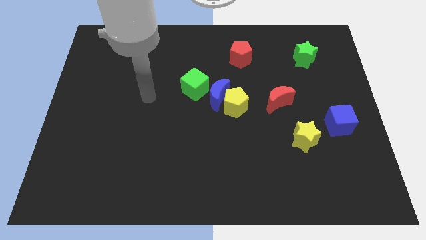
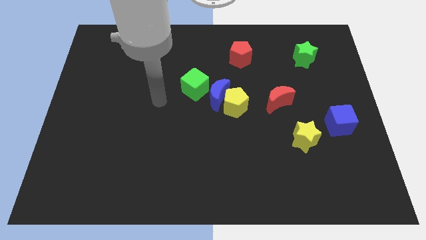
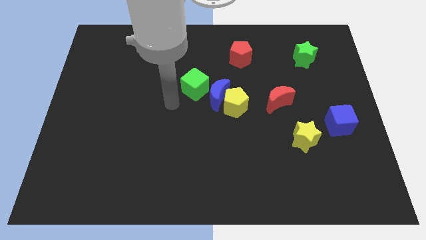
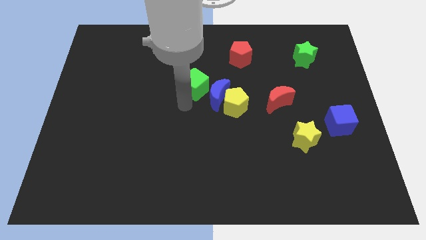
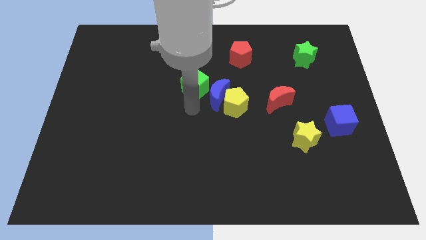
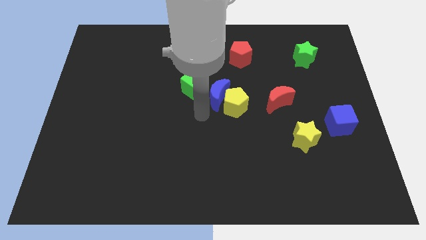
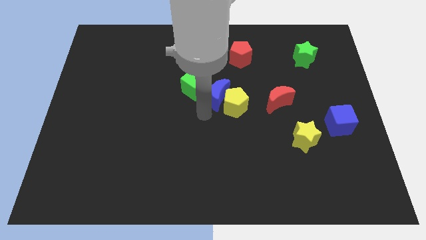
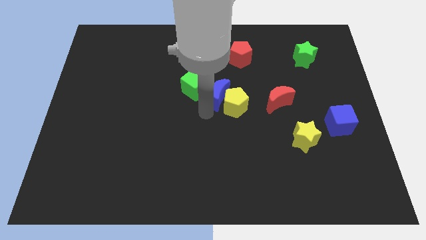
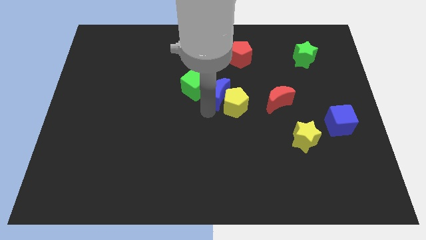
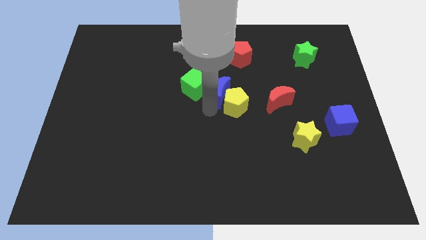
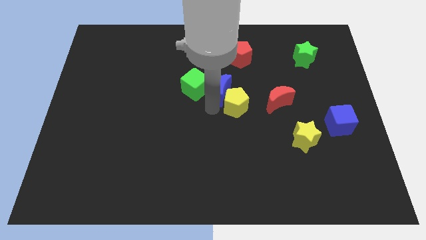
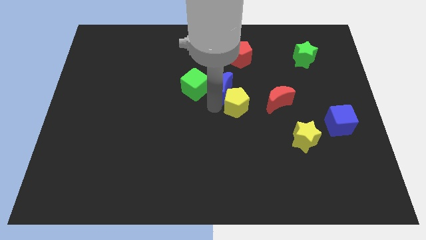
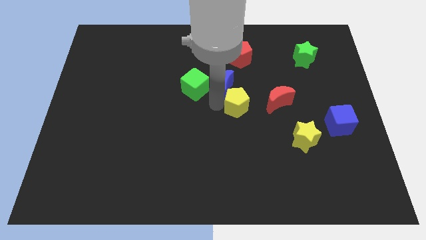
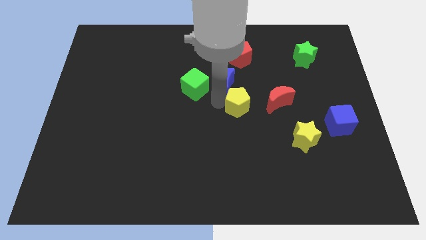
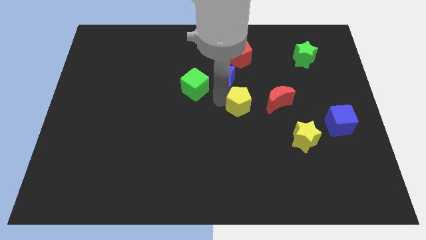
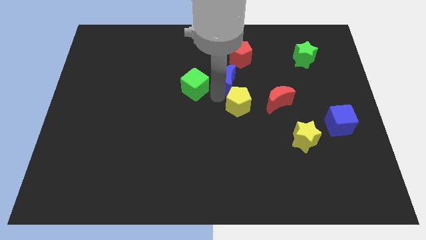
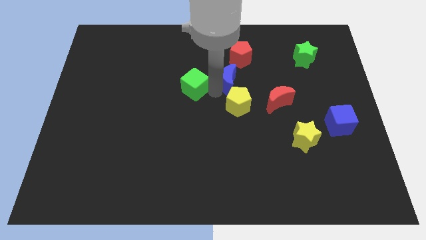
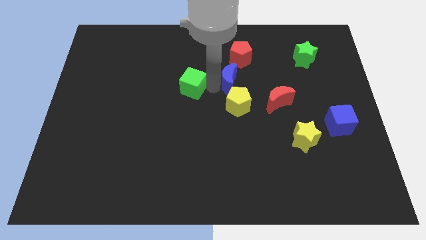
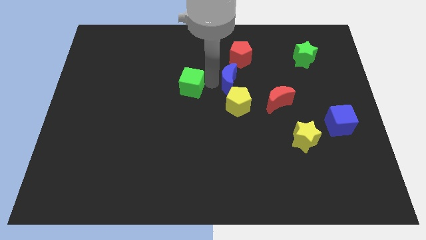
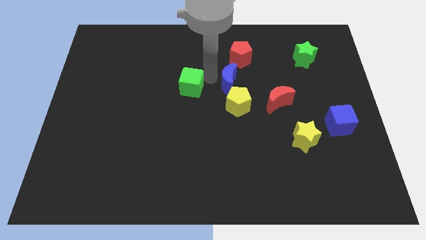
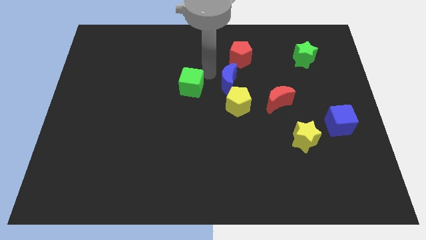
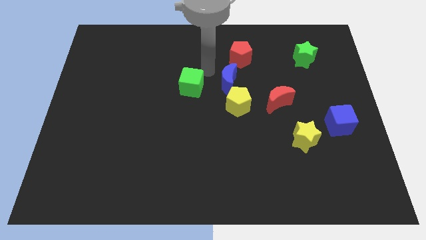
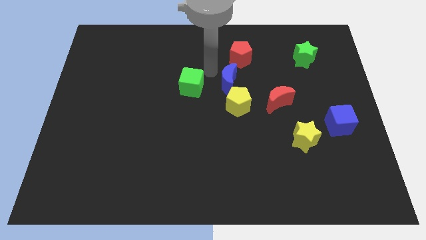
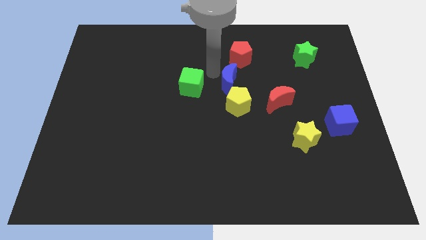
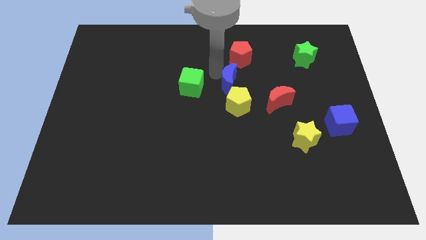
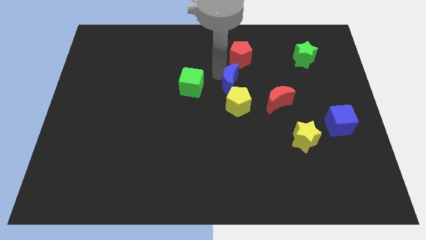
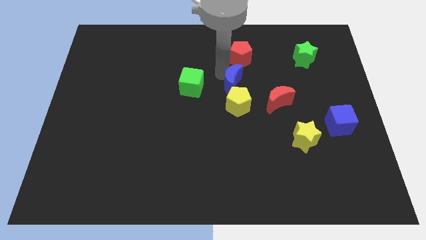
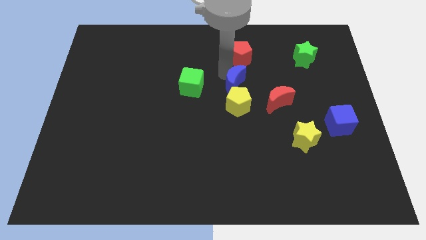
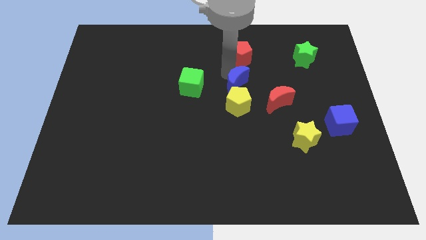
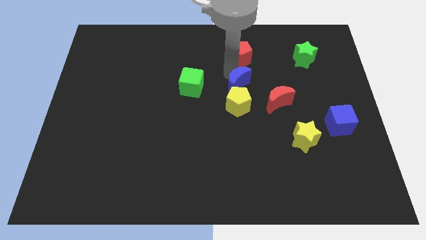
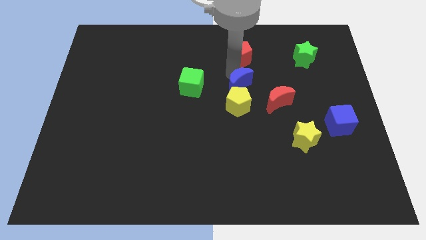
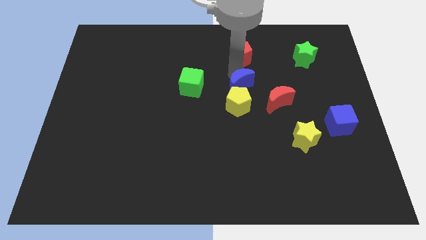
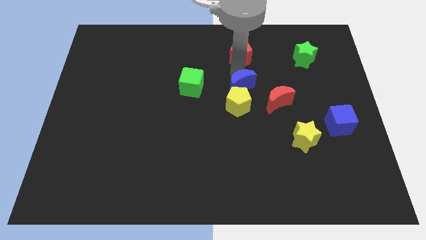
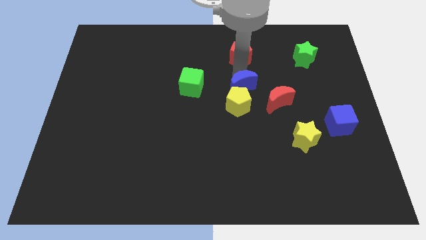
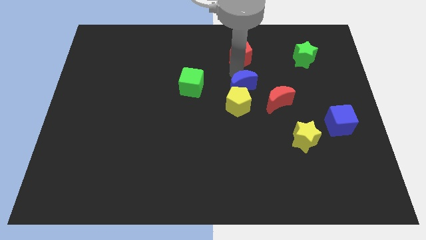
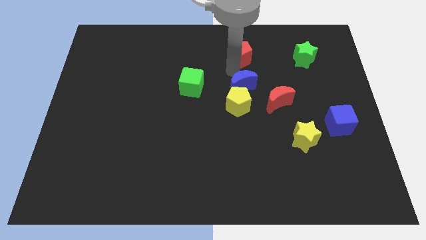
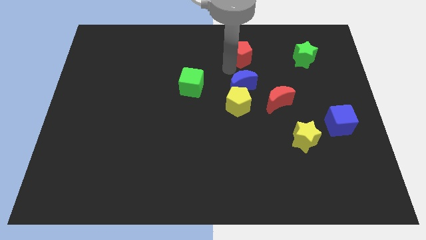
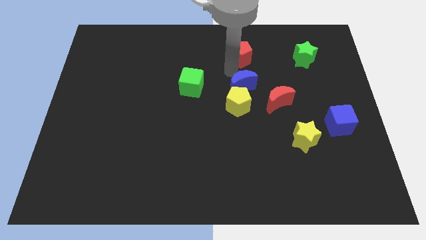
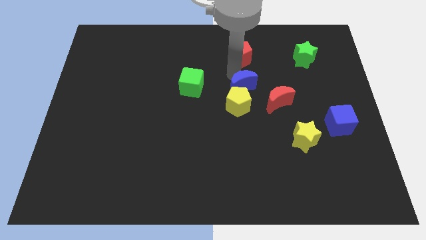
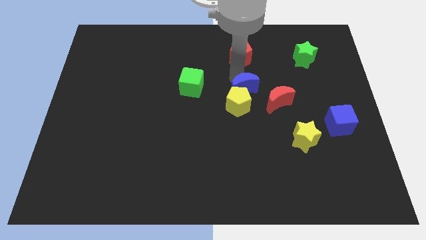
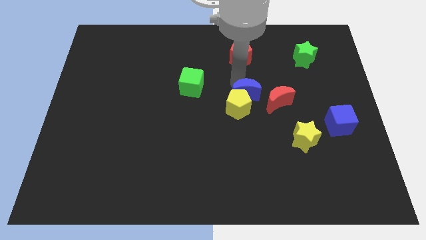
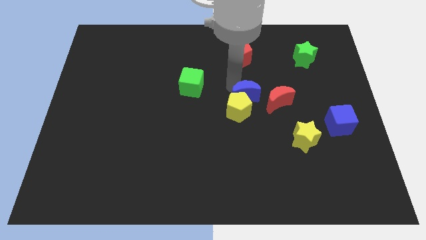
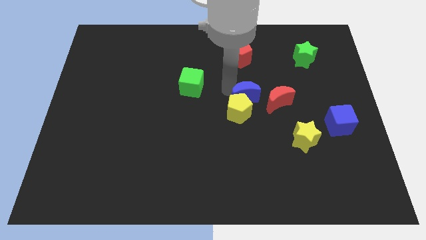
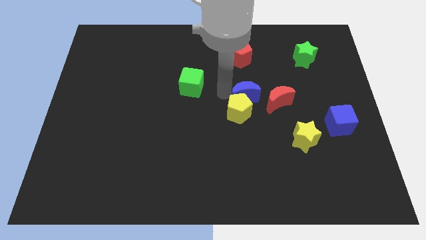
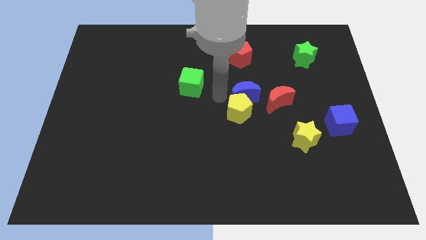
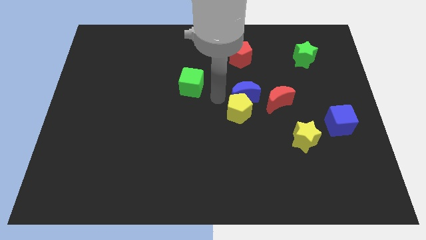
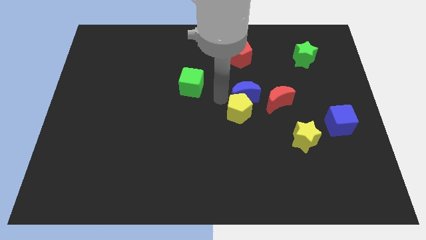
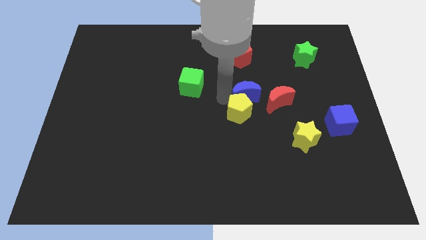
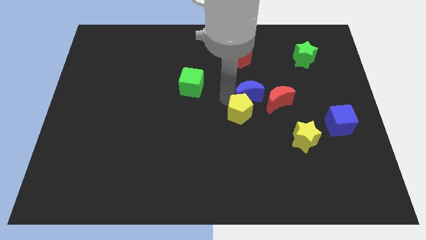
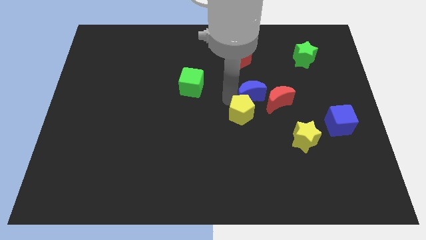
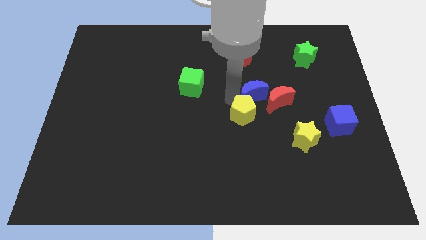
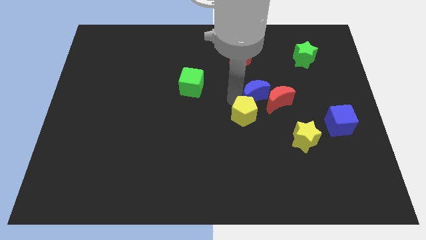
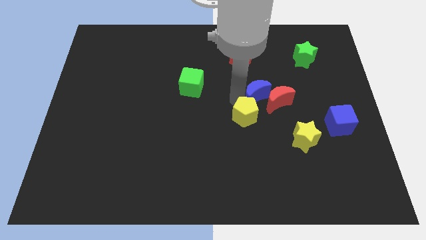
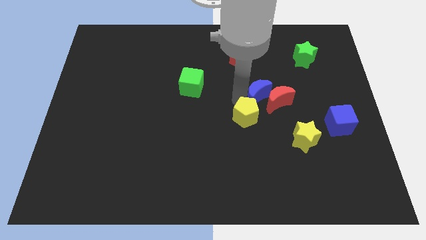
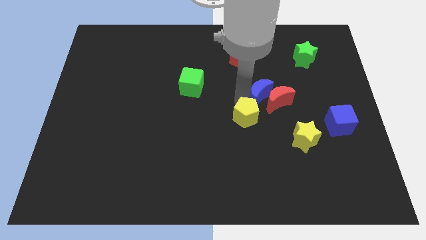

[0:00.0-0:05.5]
move the blue moon away from the yellow pentagon and green cube

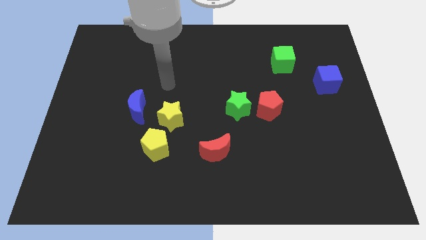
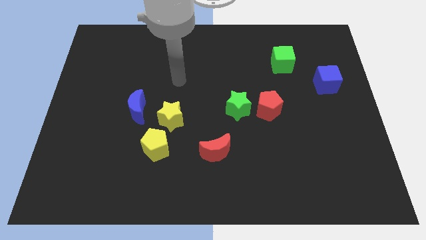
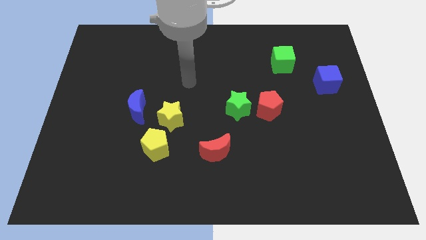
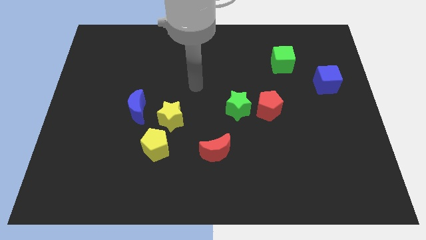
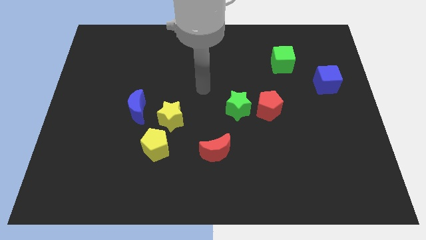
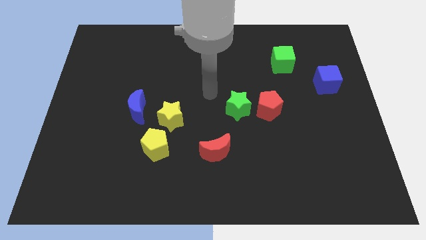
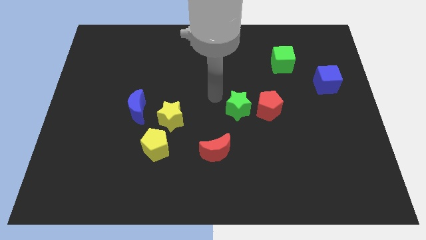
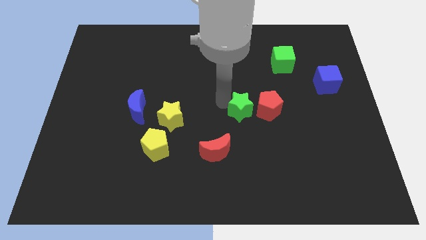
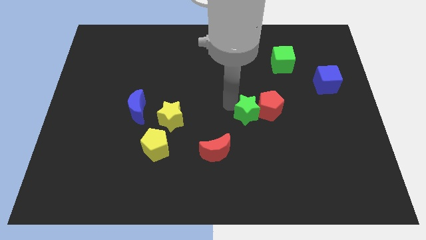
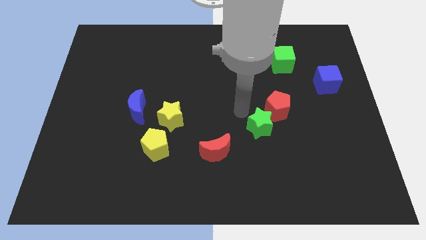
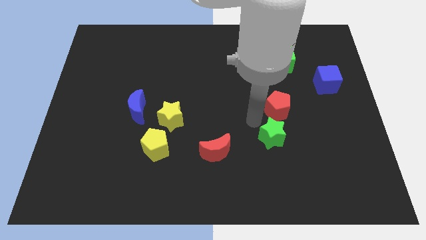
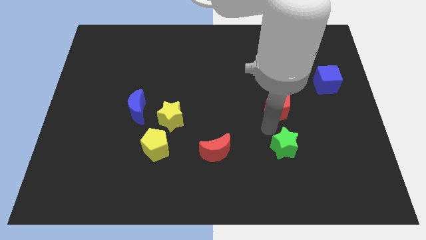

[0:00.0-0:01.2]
pull the red pentagon apart from the green star

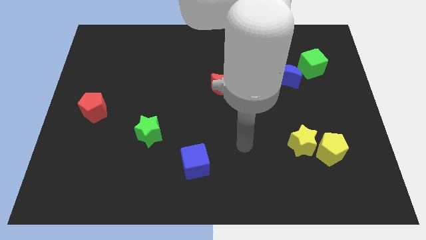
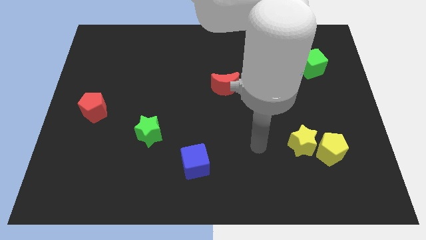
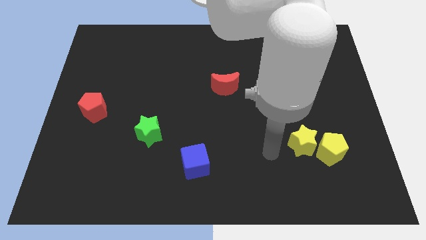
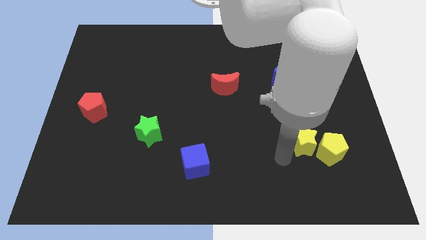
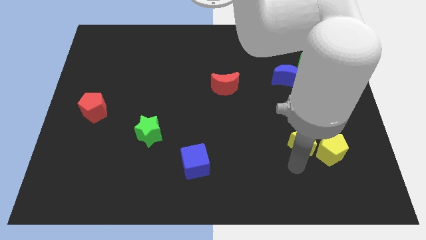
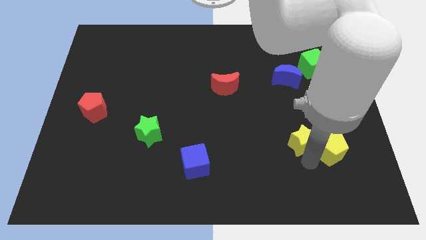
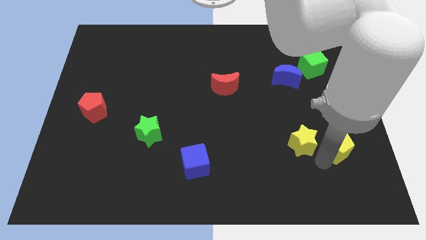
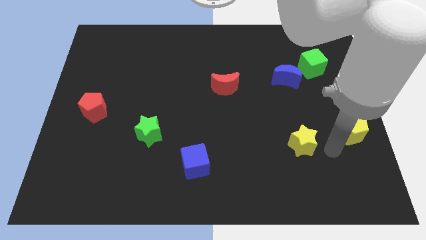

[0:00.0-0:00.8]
move the yellow star away from the yellow pentagon

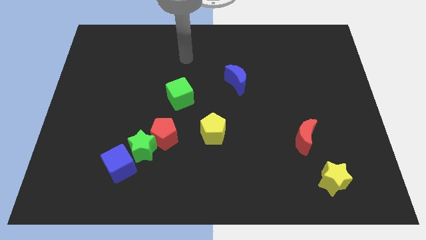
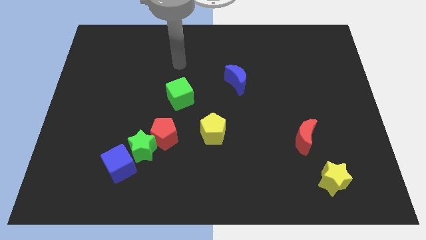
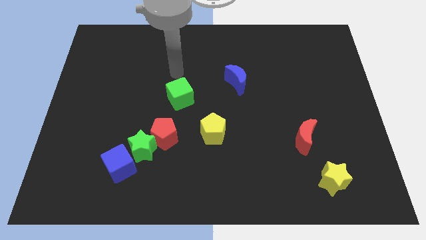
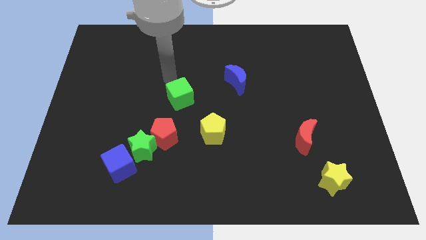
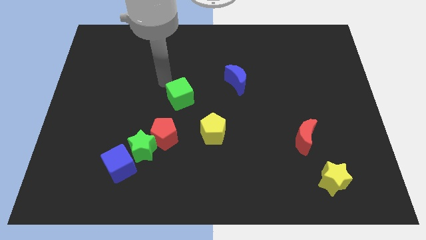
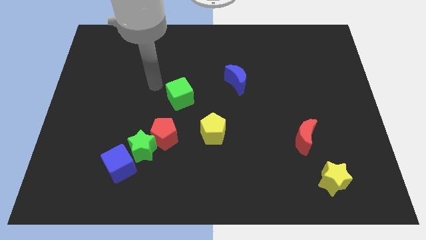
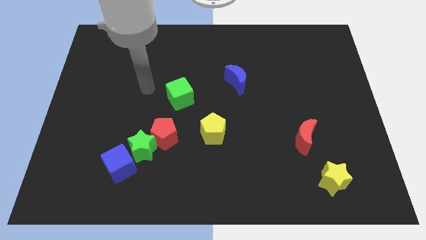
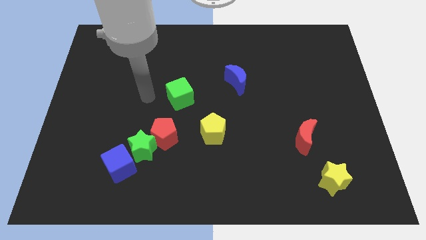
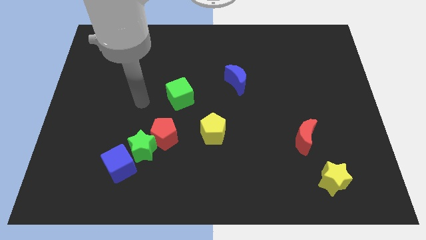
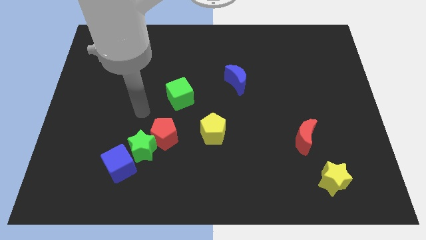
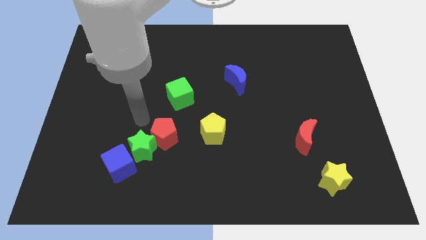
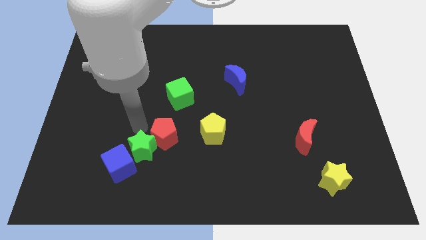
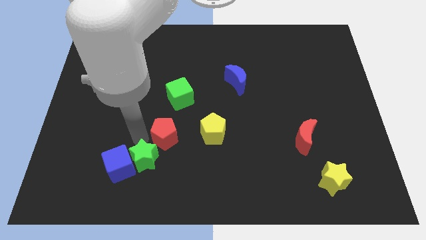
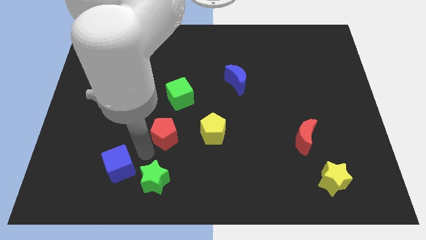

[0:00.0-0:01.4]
separate the red pentagon from the green star

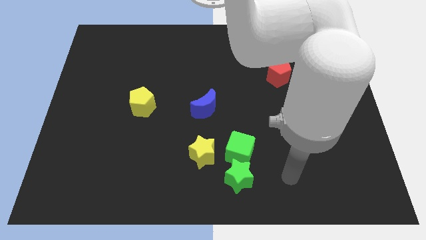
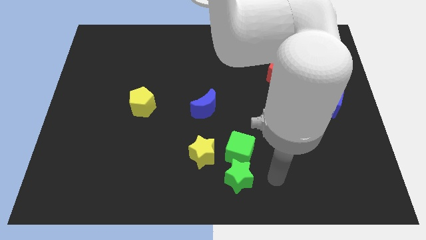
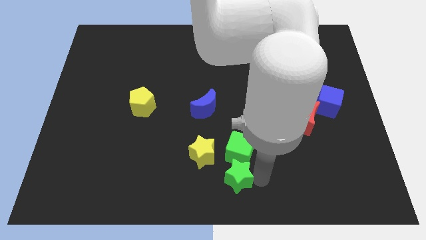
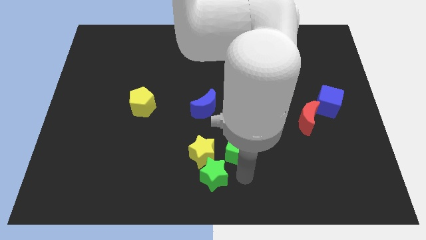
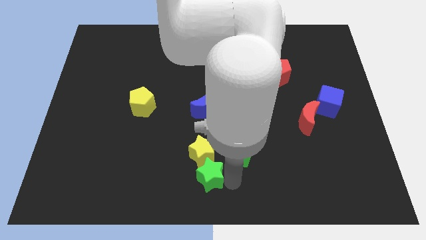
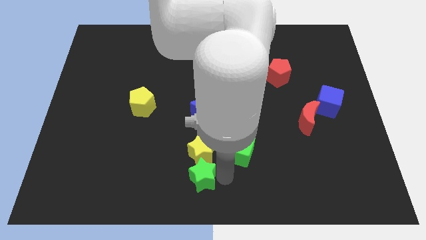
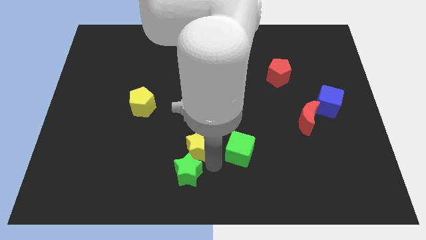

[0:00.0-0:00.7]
separate the green cube from the green star and yellow star
